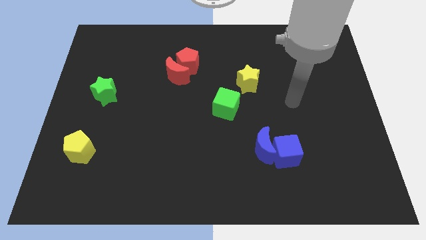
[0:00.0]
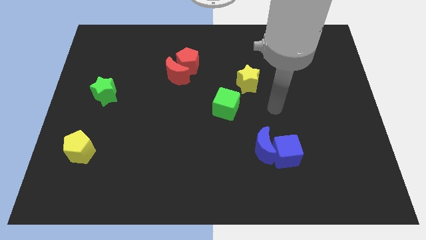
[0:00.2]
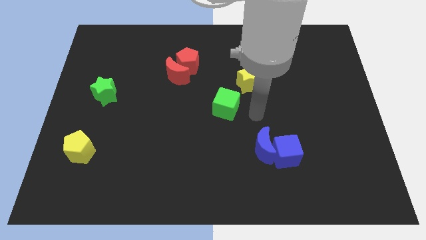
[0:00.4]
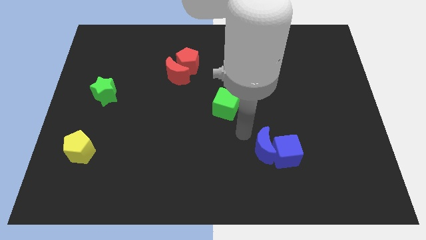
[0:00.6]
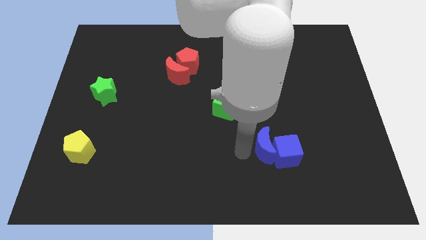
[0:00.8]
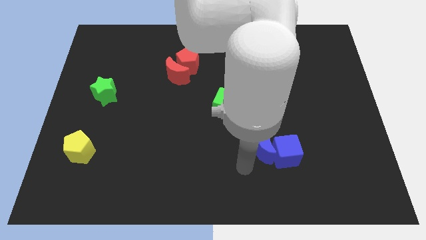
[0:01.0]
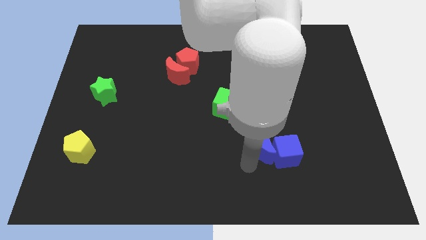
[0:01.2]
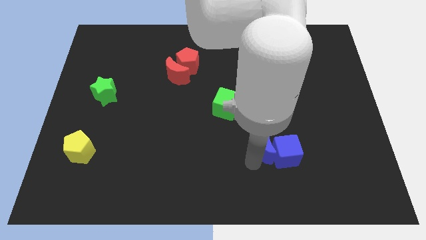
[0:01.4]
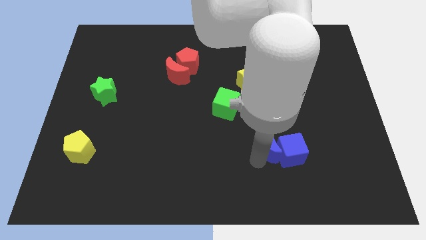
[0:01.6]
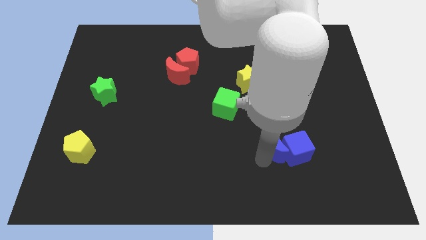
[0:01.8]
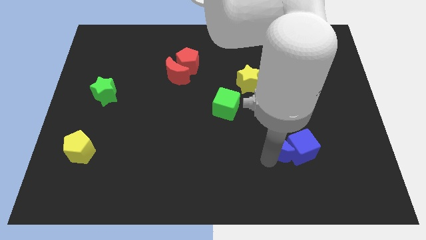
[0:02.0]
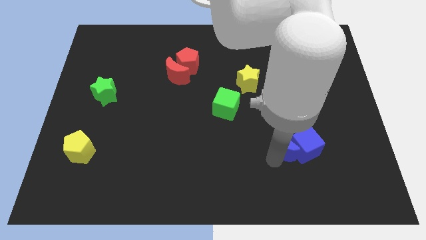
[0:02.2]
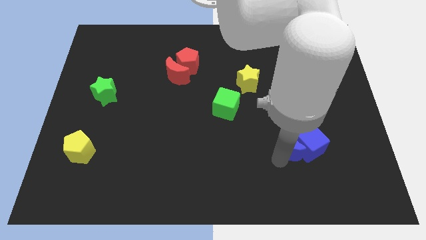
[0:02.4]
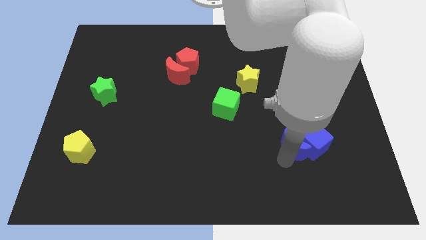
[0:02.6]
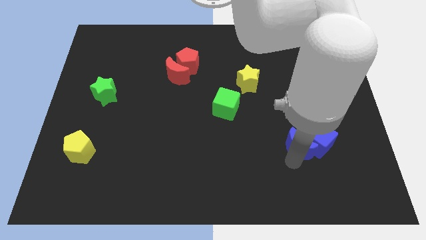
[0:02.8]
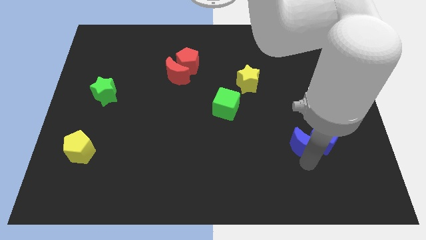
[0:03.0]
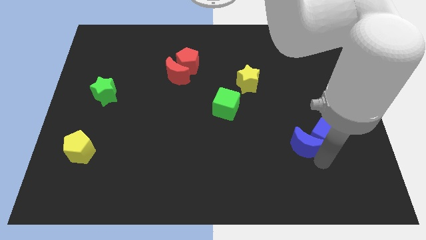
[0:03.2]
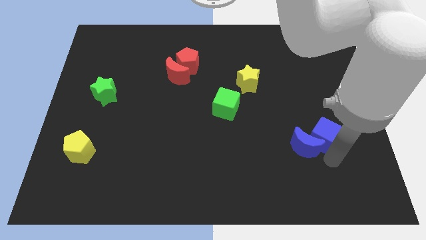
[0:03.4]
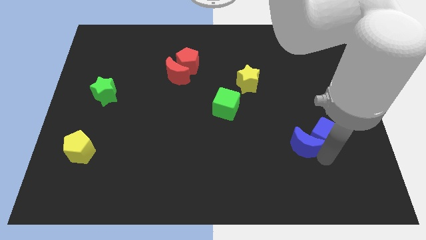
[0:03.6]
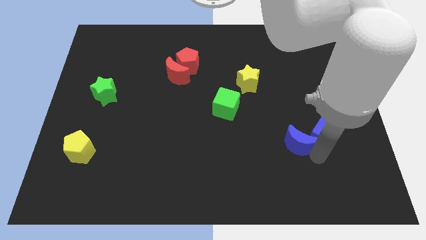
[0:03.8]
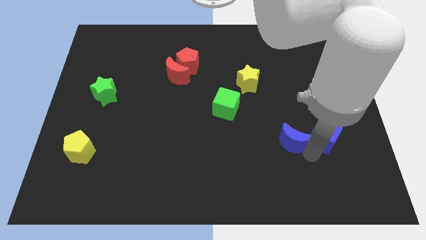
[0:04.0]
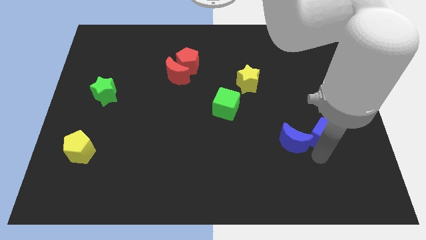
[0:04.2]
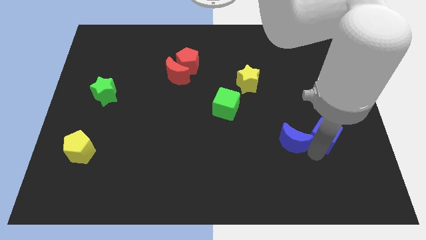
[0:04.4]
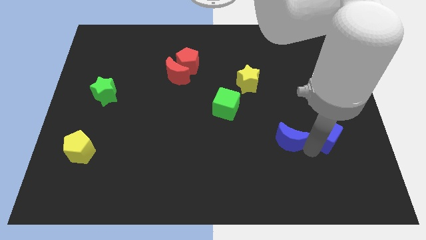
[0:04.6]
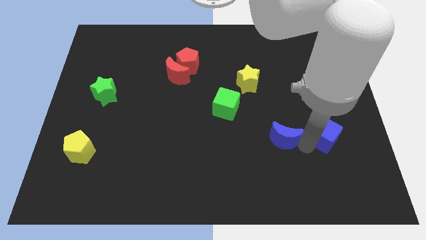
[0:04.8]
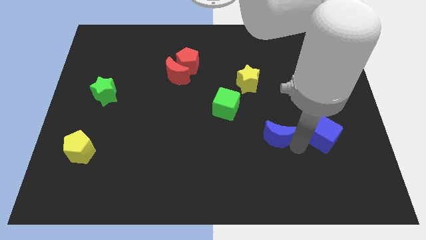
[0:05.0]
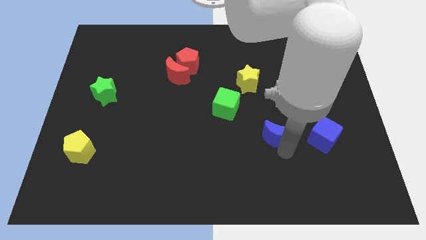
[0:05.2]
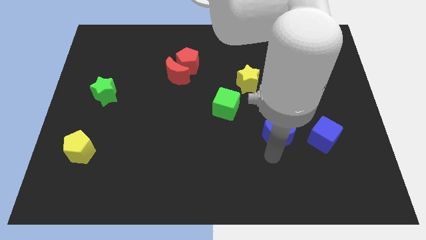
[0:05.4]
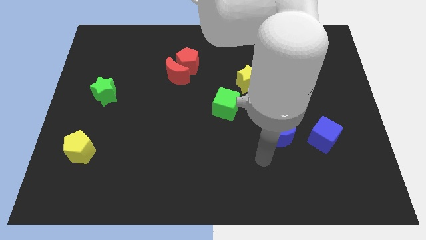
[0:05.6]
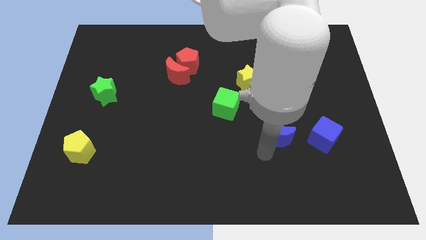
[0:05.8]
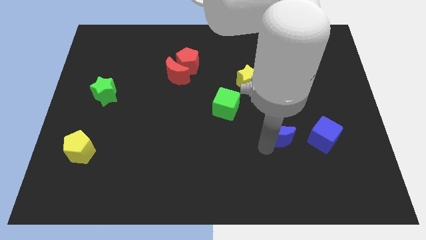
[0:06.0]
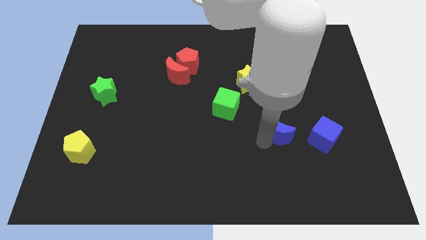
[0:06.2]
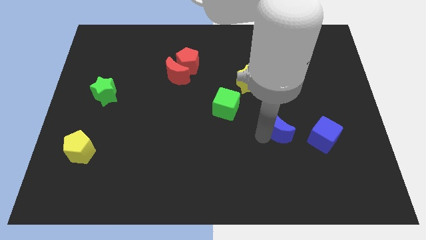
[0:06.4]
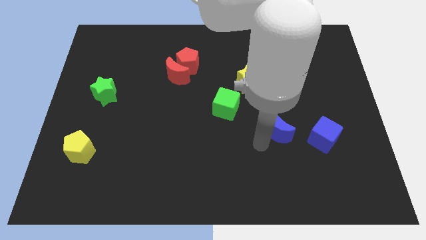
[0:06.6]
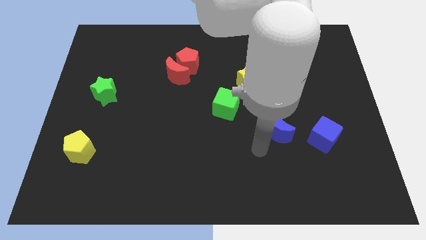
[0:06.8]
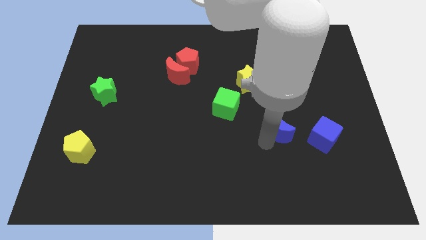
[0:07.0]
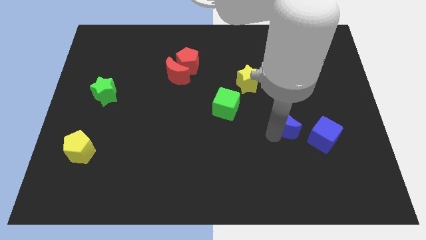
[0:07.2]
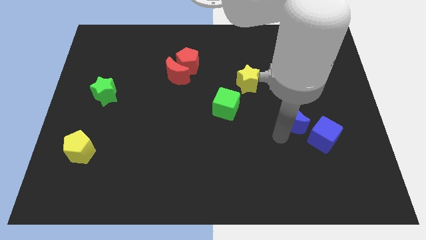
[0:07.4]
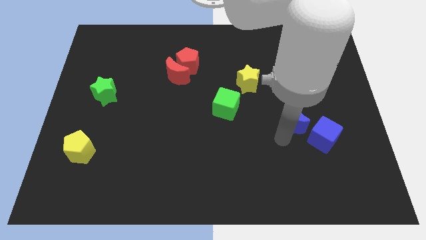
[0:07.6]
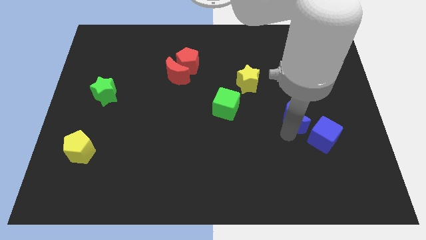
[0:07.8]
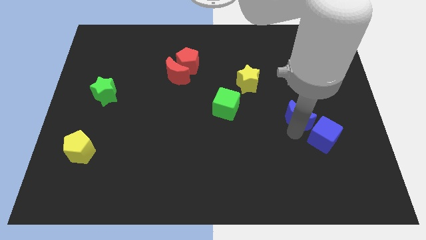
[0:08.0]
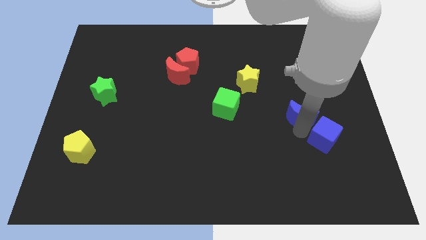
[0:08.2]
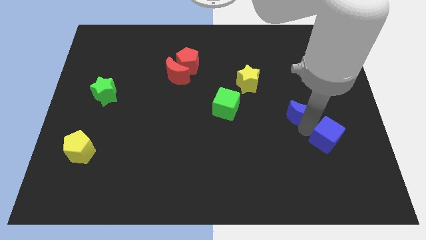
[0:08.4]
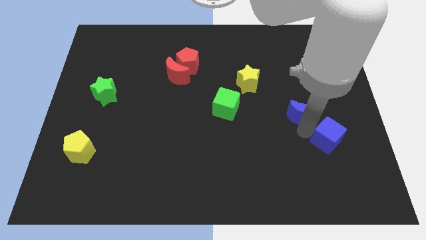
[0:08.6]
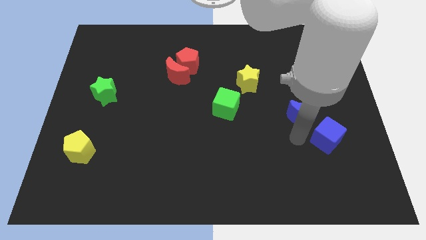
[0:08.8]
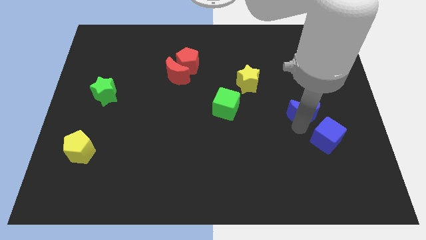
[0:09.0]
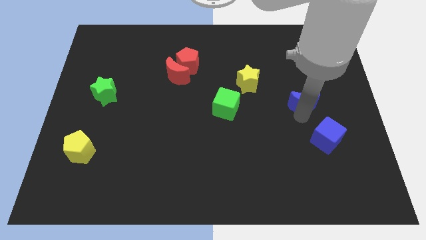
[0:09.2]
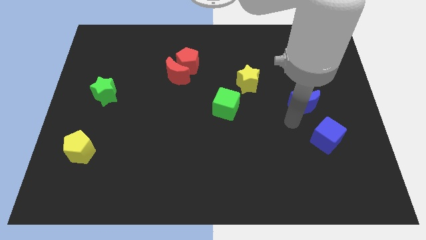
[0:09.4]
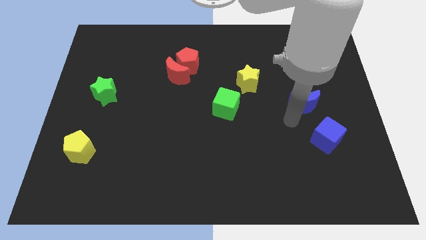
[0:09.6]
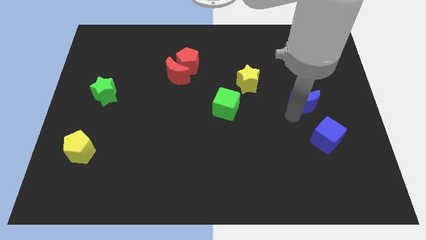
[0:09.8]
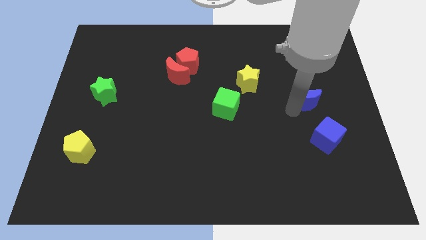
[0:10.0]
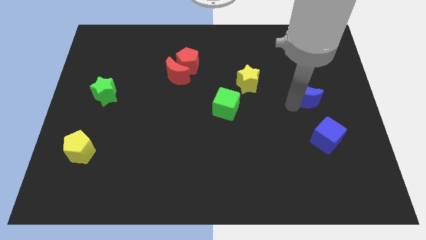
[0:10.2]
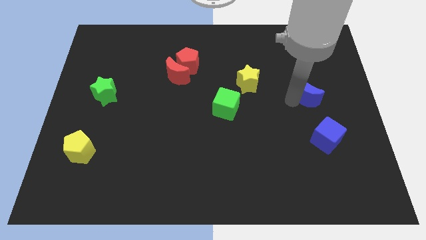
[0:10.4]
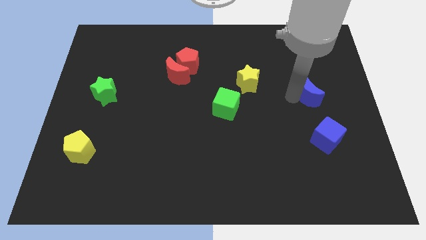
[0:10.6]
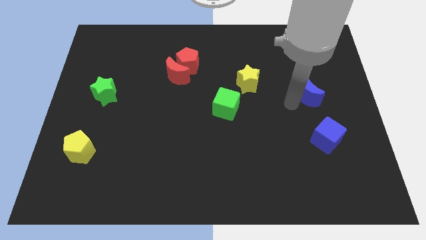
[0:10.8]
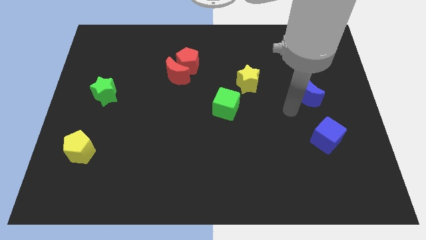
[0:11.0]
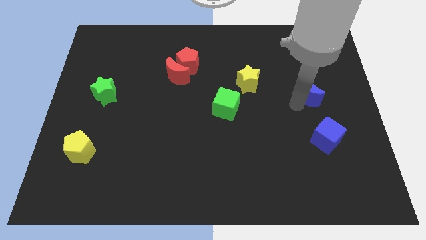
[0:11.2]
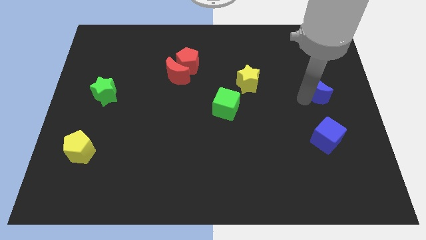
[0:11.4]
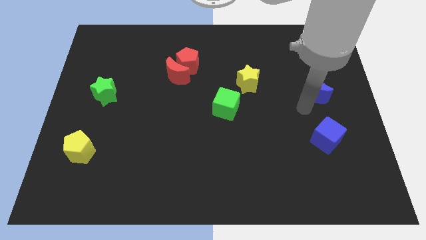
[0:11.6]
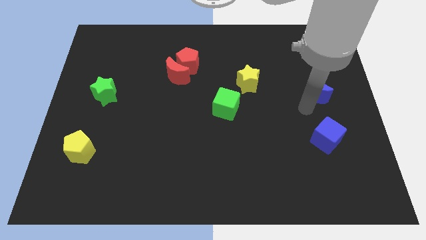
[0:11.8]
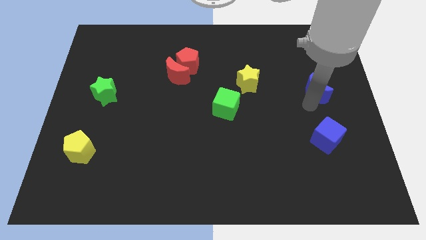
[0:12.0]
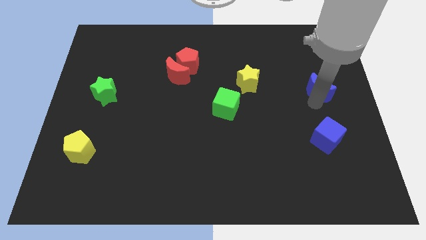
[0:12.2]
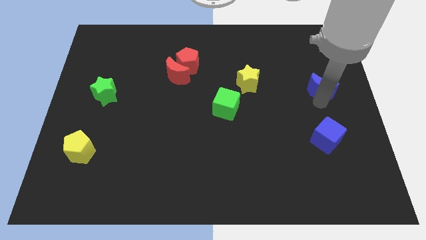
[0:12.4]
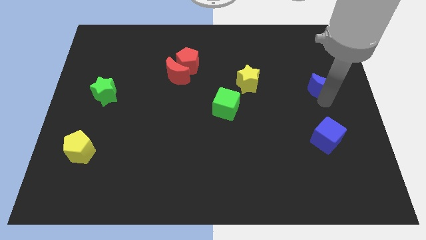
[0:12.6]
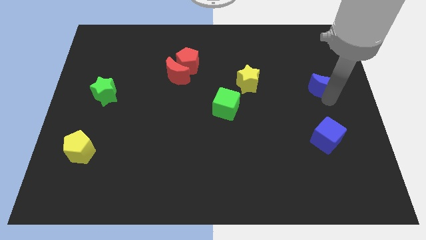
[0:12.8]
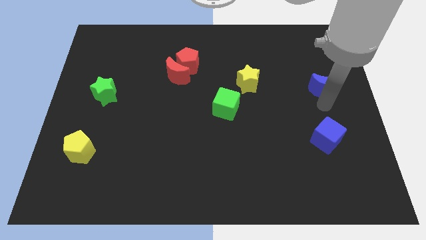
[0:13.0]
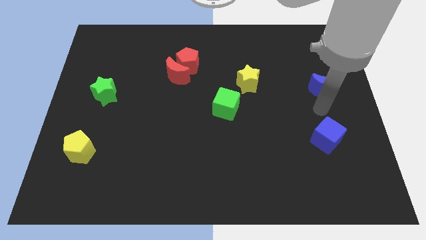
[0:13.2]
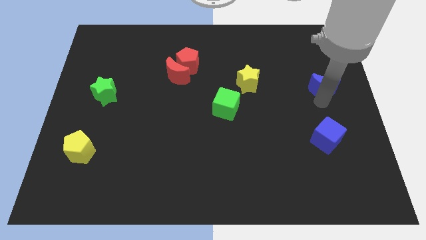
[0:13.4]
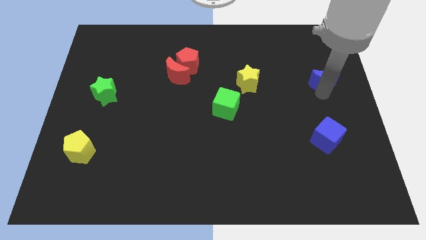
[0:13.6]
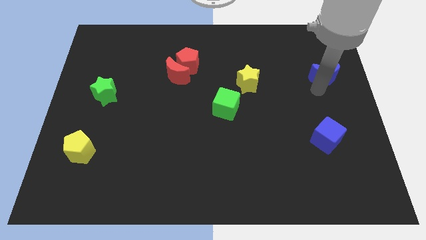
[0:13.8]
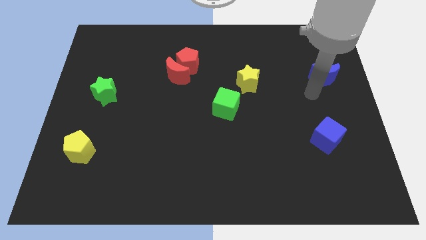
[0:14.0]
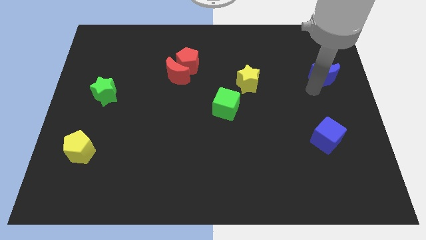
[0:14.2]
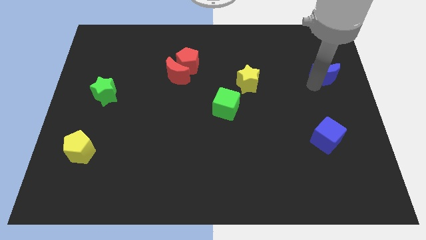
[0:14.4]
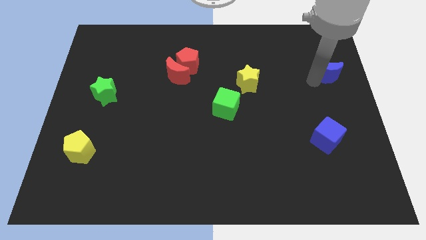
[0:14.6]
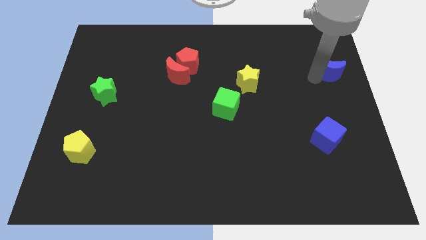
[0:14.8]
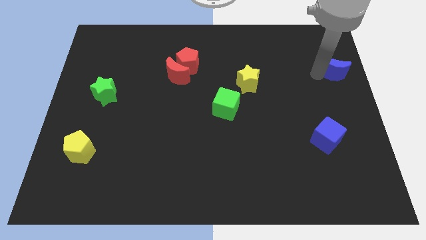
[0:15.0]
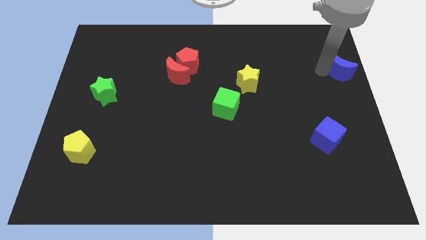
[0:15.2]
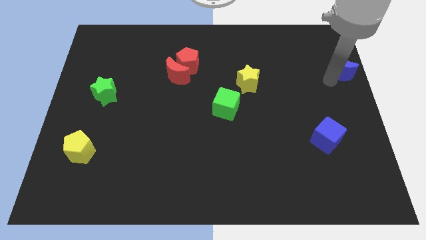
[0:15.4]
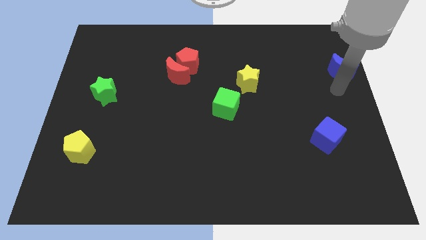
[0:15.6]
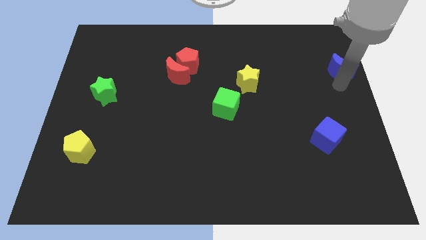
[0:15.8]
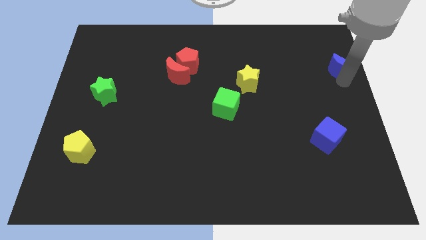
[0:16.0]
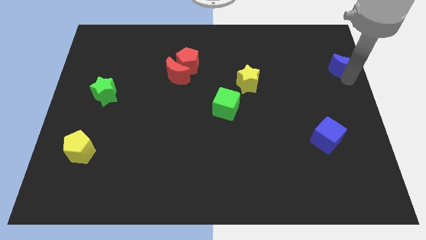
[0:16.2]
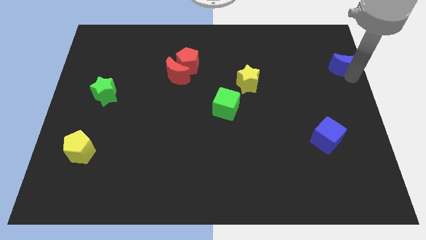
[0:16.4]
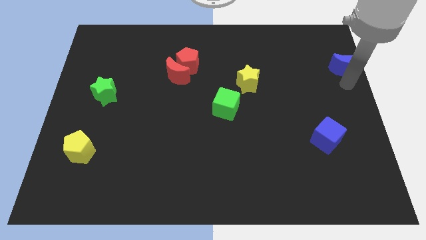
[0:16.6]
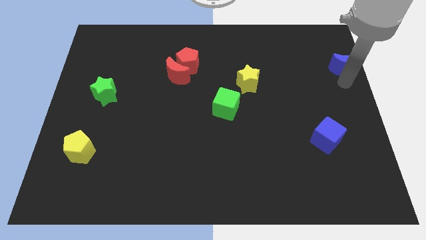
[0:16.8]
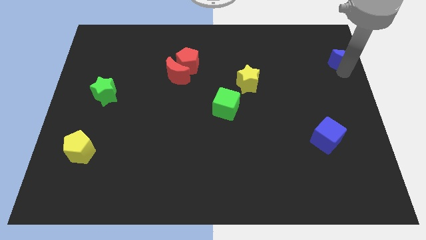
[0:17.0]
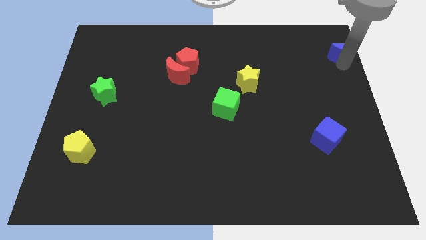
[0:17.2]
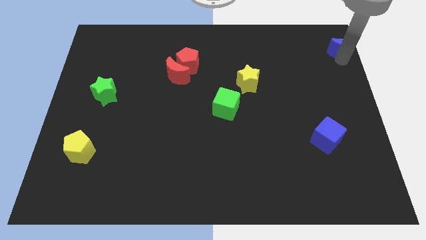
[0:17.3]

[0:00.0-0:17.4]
put the blue moon to the top right corner
